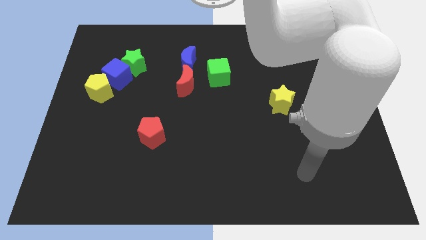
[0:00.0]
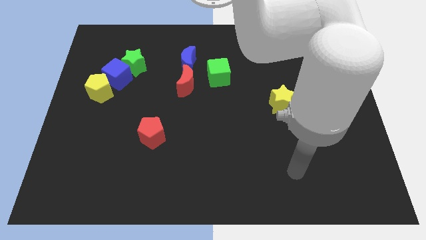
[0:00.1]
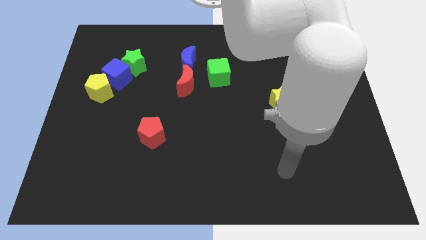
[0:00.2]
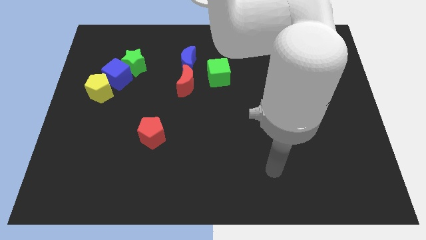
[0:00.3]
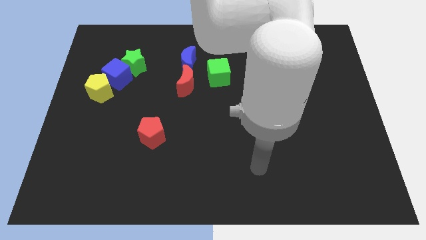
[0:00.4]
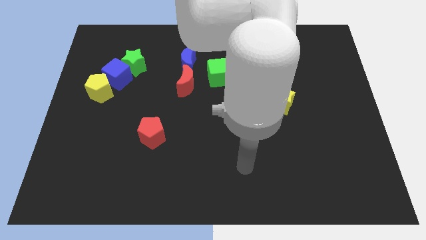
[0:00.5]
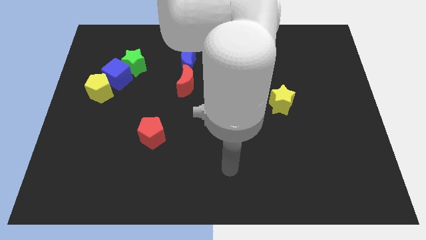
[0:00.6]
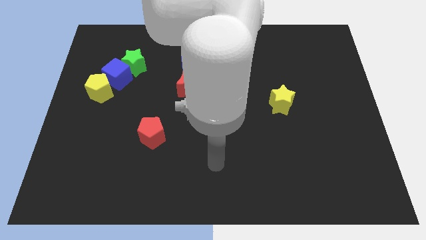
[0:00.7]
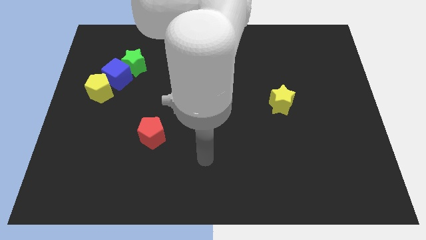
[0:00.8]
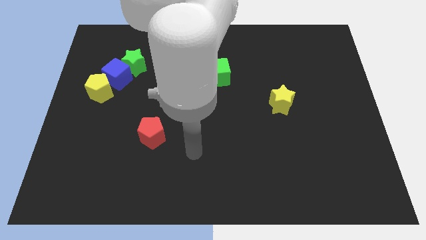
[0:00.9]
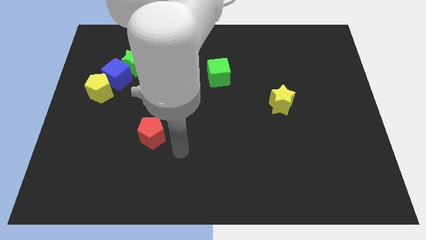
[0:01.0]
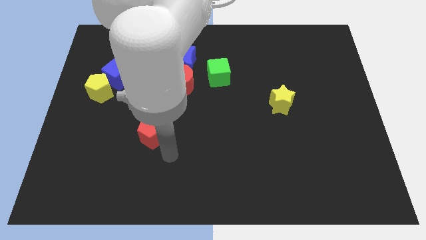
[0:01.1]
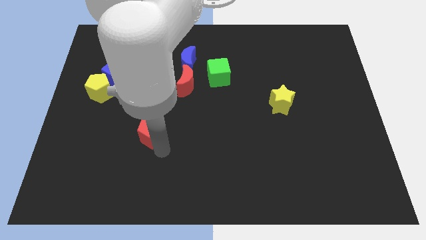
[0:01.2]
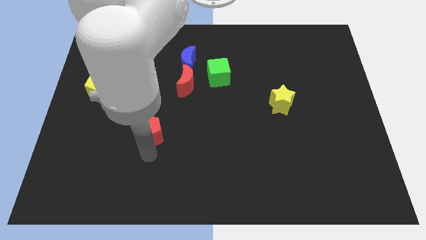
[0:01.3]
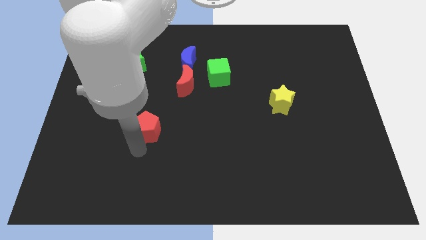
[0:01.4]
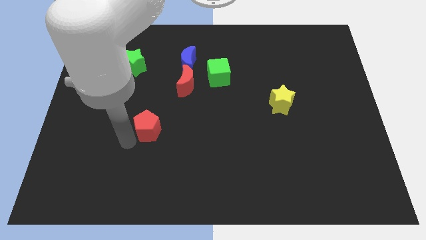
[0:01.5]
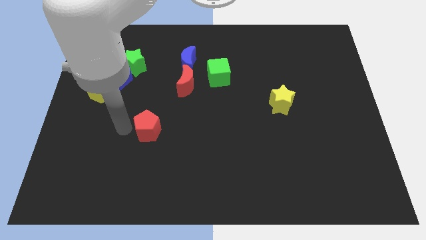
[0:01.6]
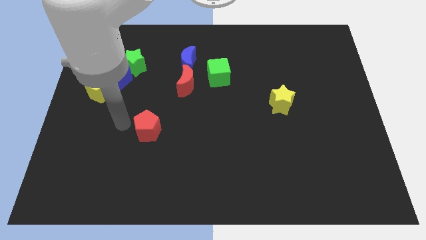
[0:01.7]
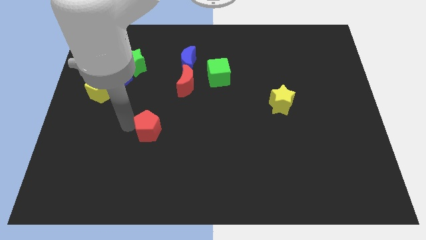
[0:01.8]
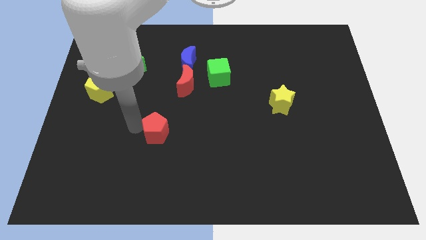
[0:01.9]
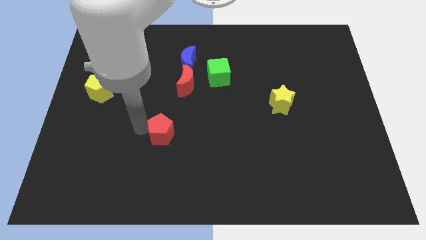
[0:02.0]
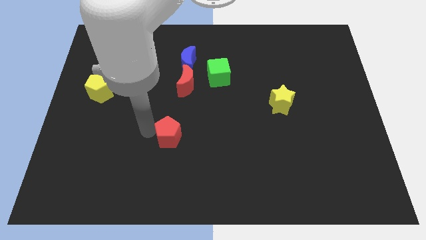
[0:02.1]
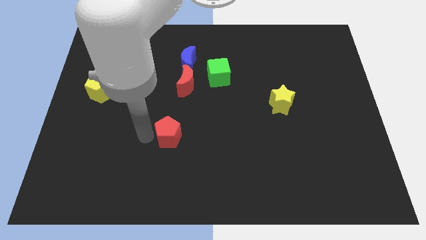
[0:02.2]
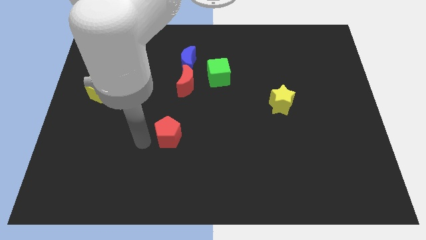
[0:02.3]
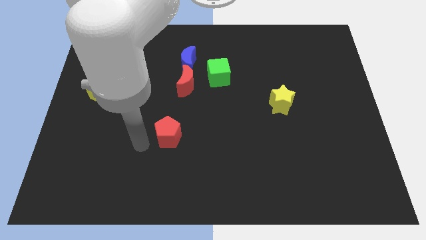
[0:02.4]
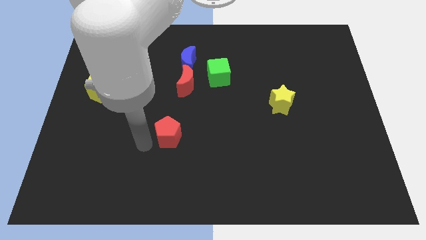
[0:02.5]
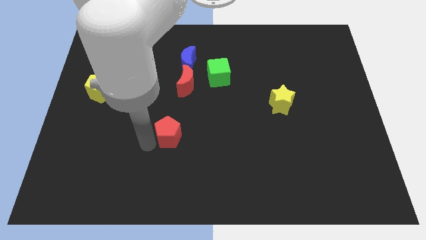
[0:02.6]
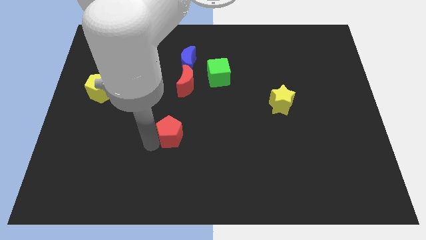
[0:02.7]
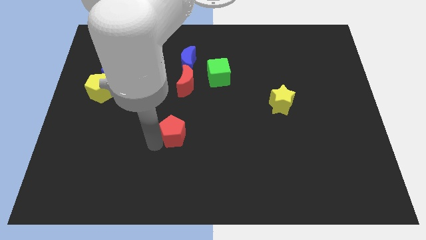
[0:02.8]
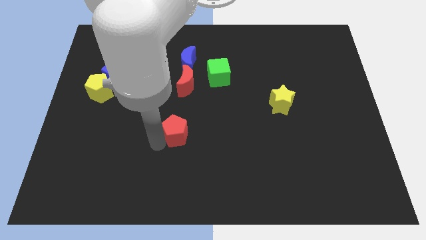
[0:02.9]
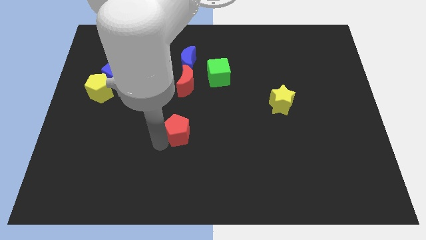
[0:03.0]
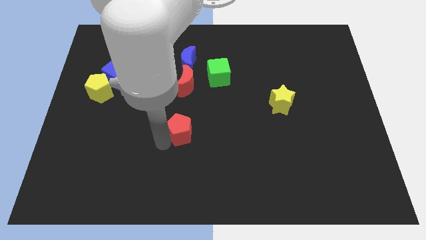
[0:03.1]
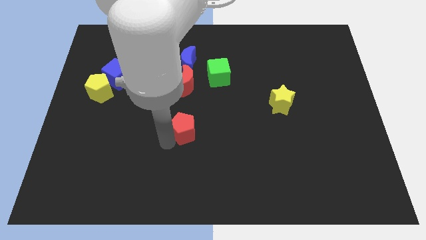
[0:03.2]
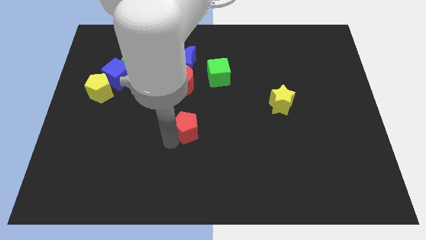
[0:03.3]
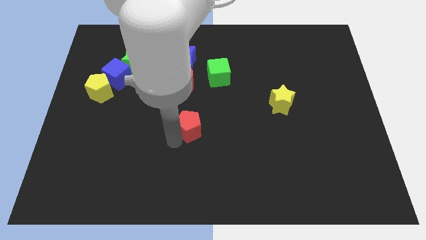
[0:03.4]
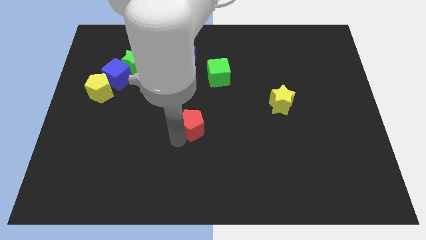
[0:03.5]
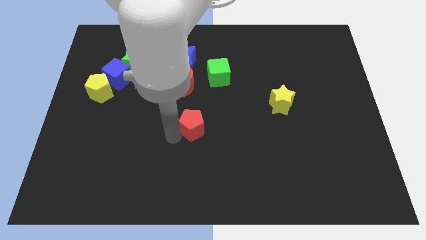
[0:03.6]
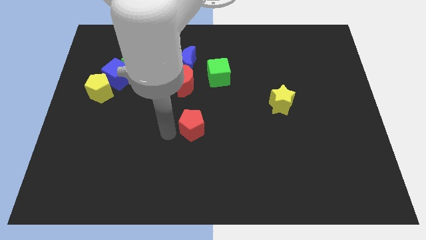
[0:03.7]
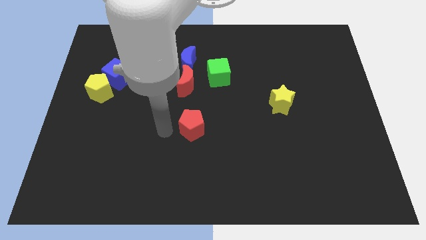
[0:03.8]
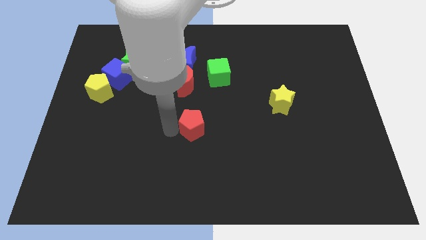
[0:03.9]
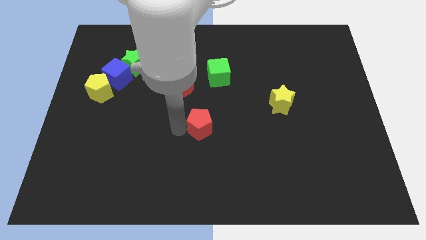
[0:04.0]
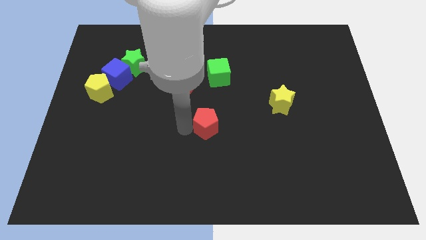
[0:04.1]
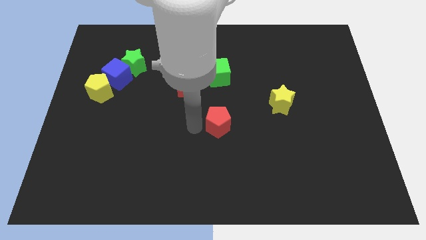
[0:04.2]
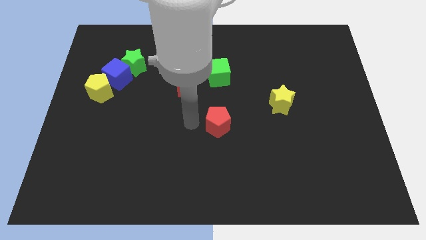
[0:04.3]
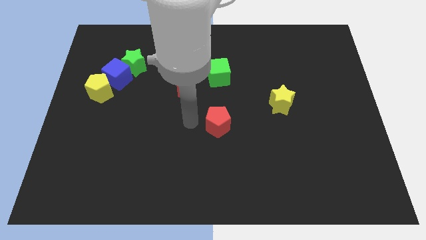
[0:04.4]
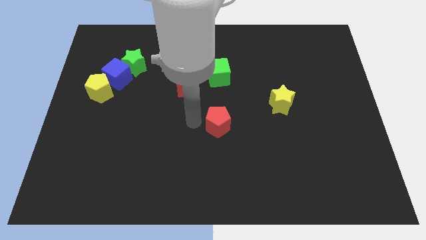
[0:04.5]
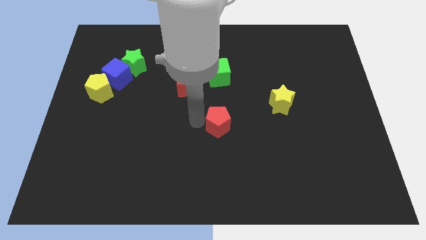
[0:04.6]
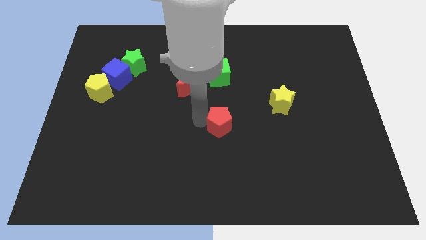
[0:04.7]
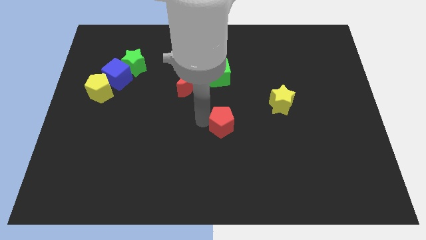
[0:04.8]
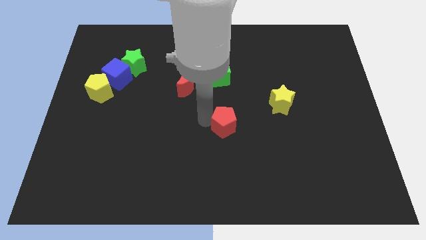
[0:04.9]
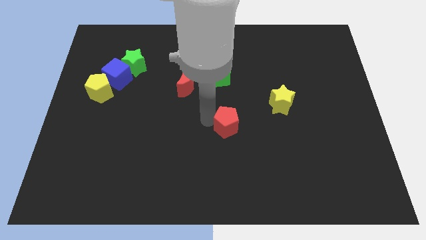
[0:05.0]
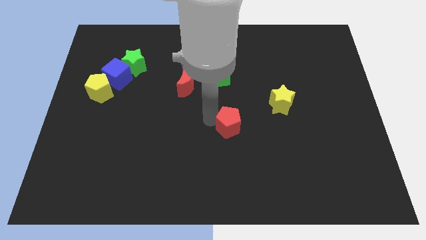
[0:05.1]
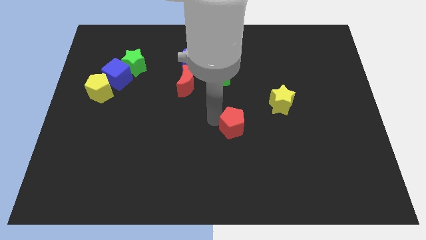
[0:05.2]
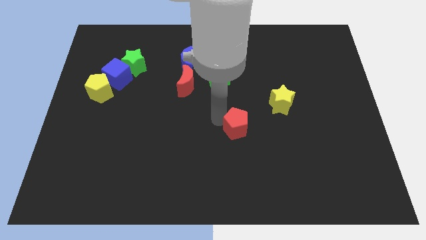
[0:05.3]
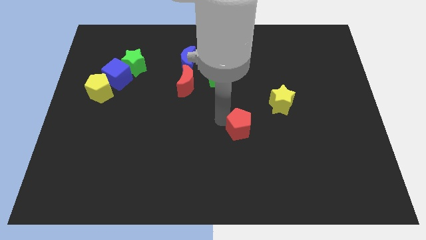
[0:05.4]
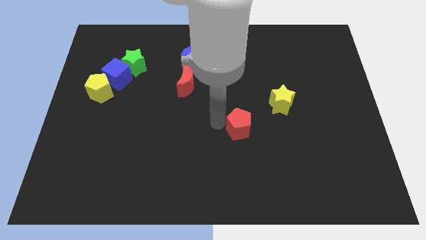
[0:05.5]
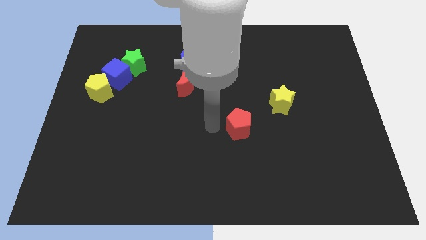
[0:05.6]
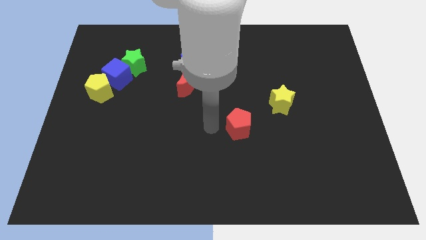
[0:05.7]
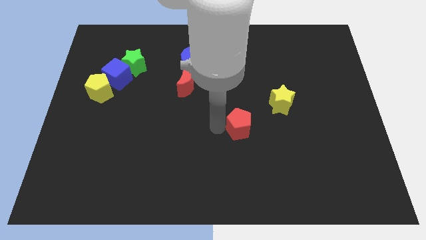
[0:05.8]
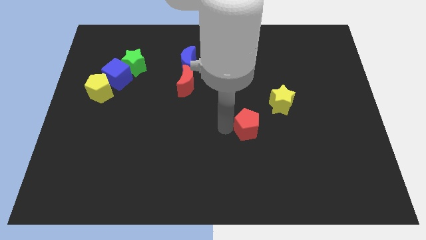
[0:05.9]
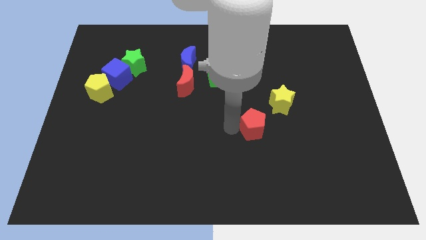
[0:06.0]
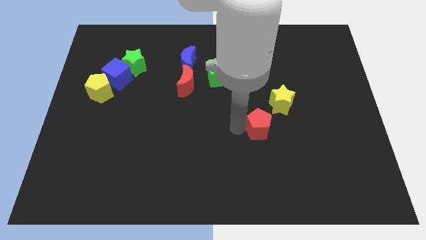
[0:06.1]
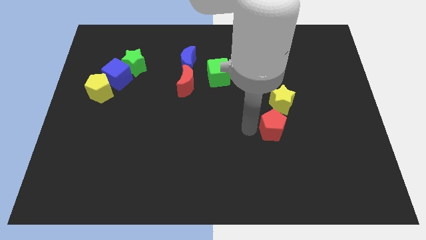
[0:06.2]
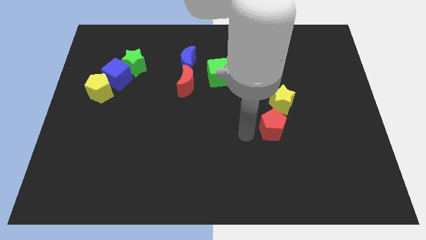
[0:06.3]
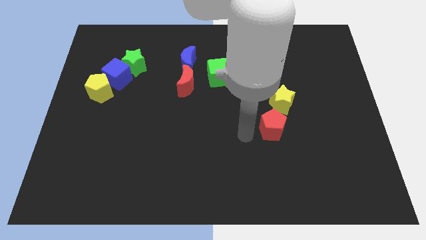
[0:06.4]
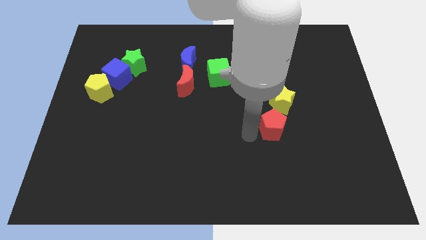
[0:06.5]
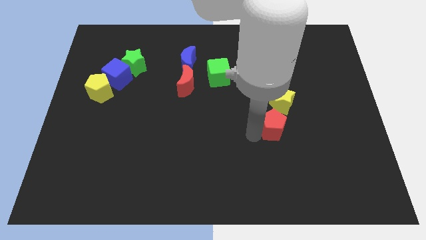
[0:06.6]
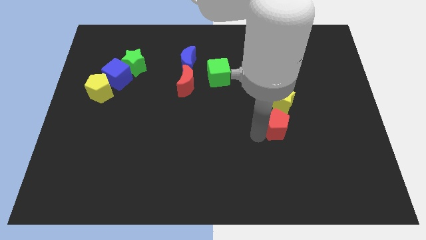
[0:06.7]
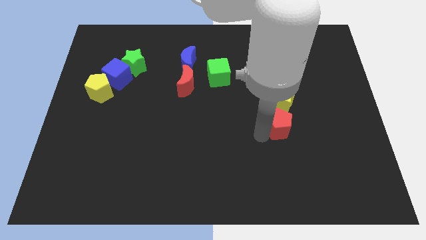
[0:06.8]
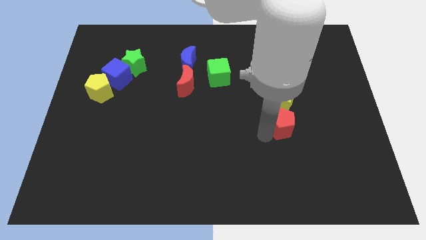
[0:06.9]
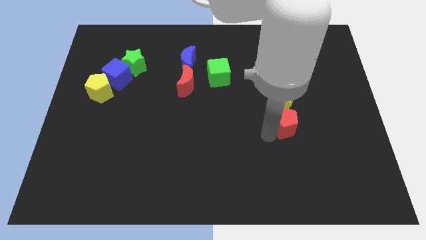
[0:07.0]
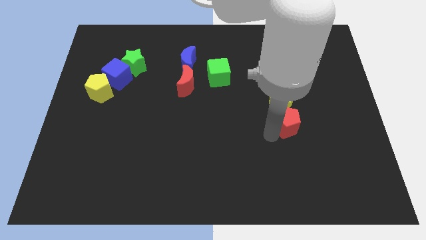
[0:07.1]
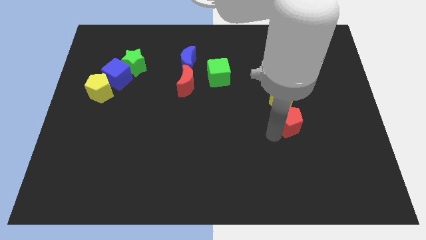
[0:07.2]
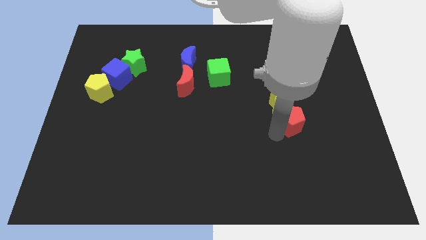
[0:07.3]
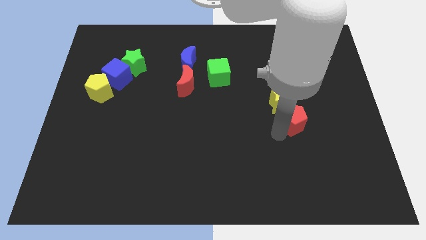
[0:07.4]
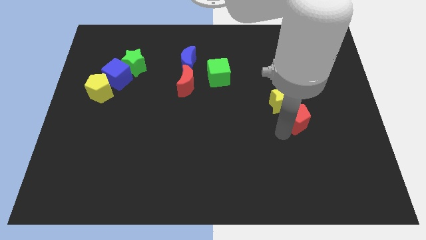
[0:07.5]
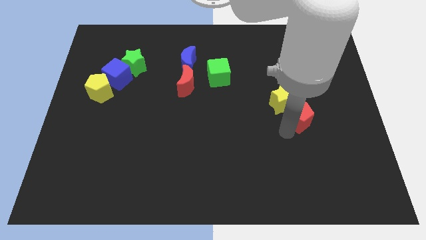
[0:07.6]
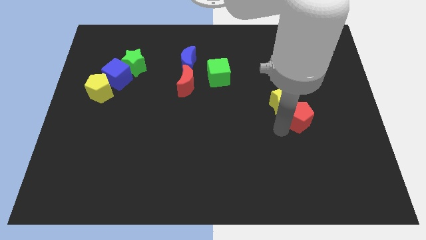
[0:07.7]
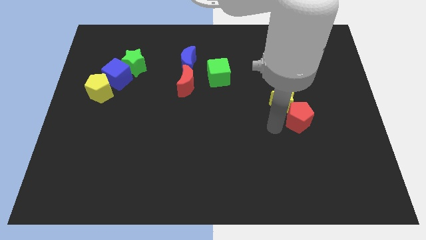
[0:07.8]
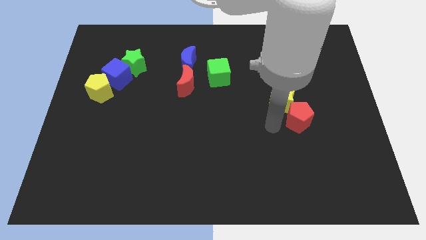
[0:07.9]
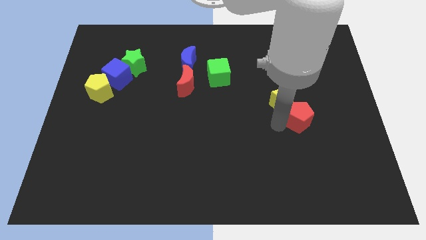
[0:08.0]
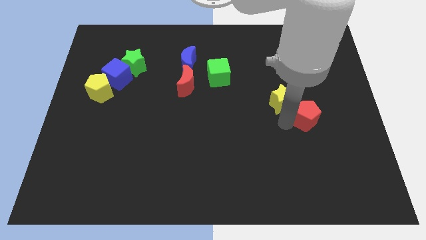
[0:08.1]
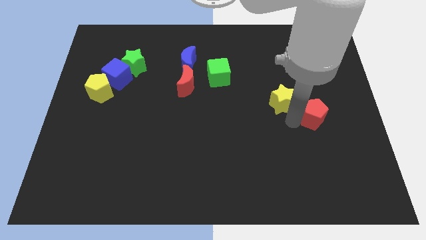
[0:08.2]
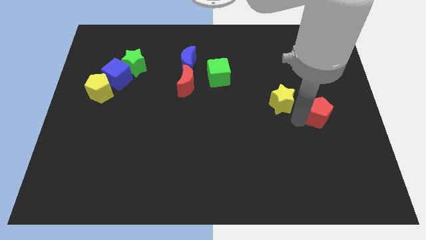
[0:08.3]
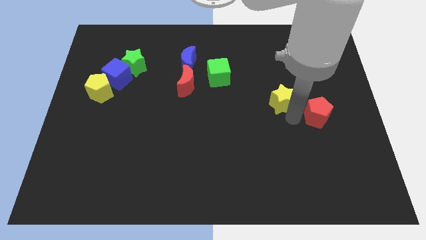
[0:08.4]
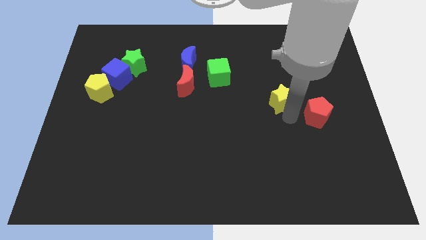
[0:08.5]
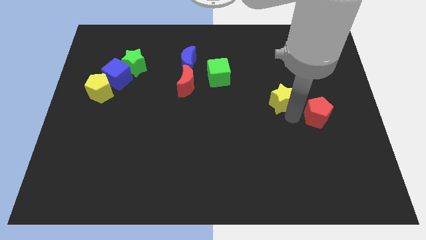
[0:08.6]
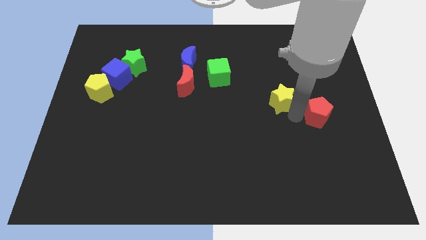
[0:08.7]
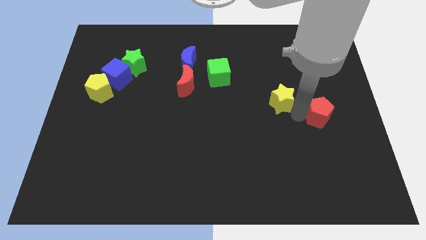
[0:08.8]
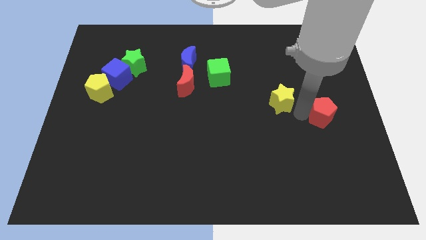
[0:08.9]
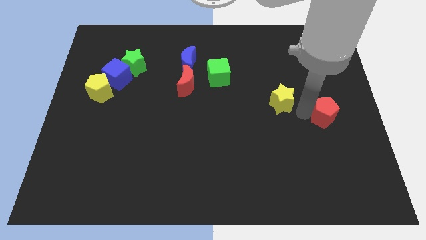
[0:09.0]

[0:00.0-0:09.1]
move the red pentagon to the right side
